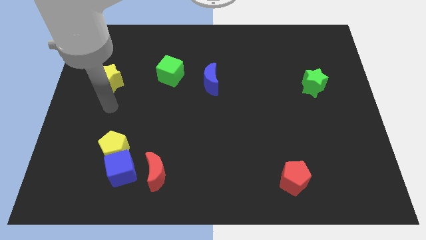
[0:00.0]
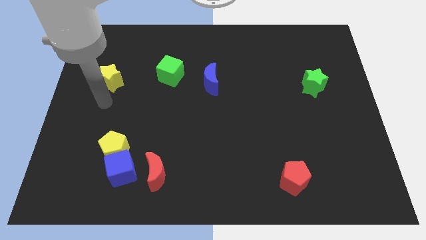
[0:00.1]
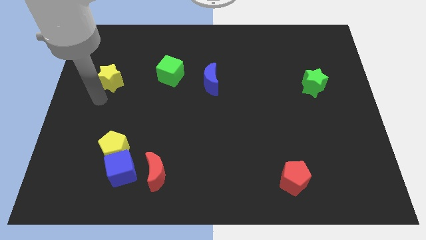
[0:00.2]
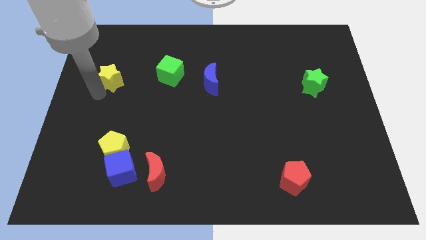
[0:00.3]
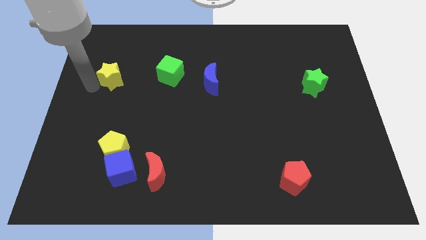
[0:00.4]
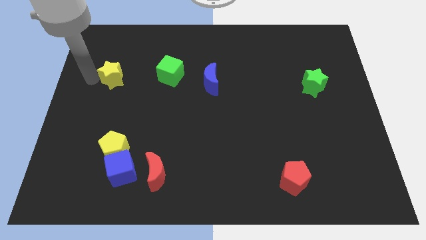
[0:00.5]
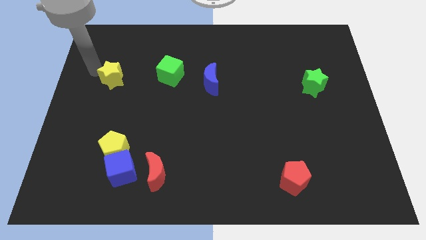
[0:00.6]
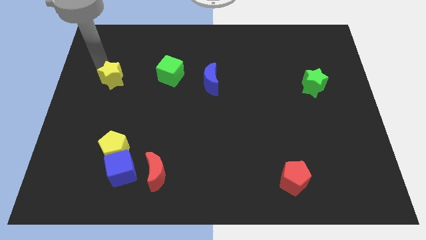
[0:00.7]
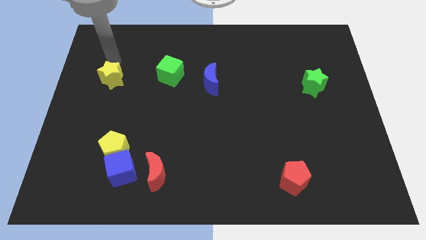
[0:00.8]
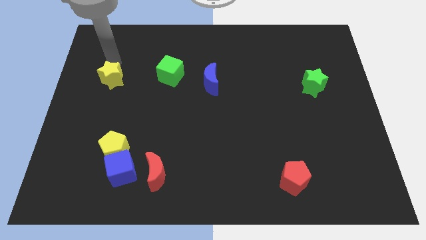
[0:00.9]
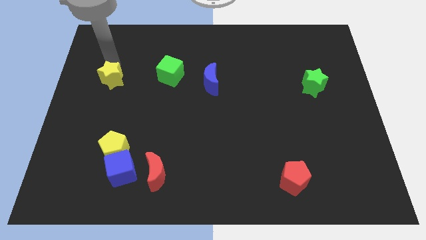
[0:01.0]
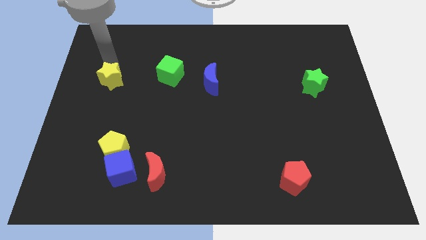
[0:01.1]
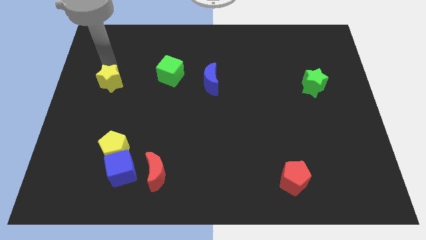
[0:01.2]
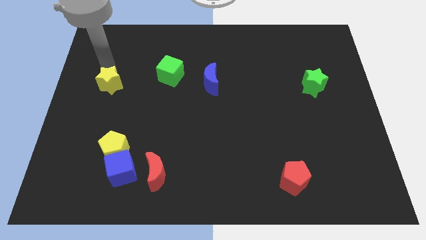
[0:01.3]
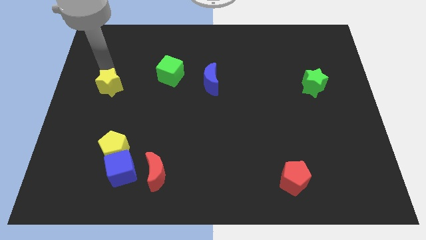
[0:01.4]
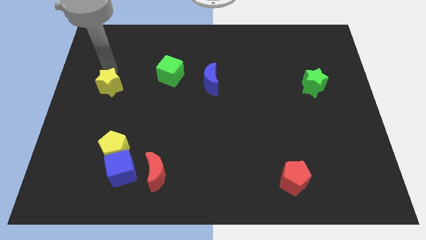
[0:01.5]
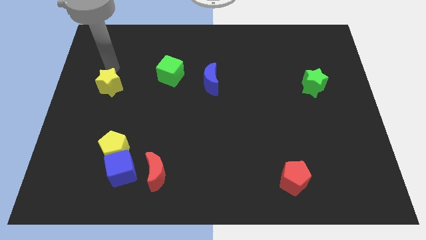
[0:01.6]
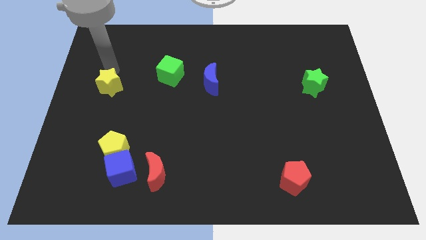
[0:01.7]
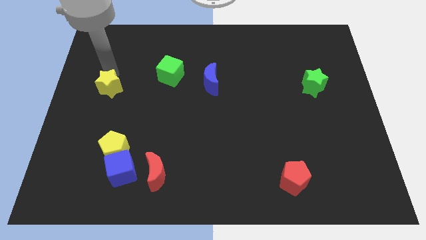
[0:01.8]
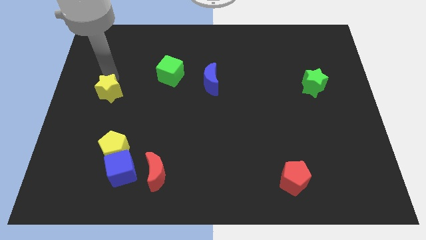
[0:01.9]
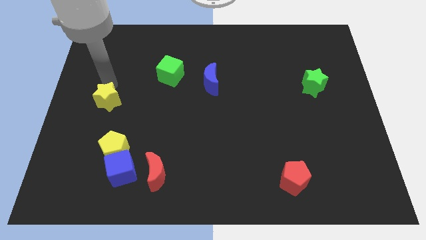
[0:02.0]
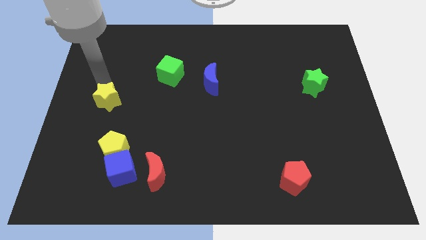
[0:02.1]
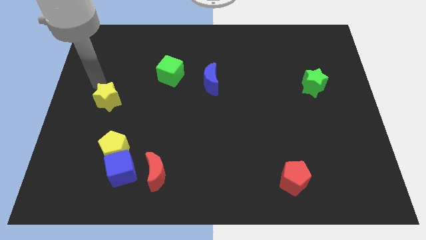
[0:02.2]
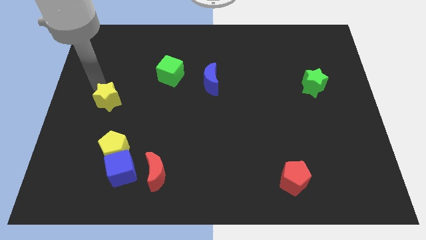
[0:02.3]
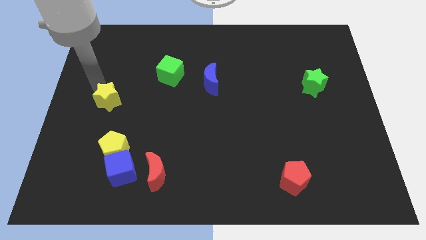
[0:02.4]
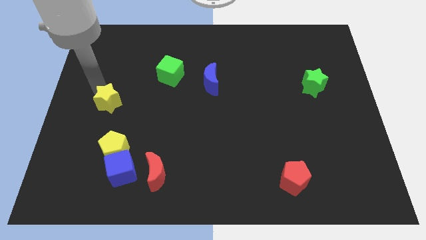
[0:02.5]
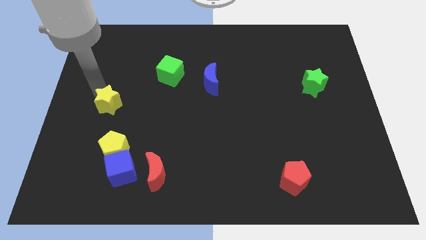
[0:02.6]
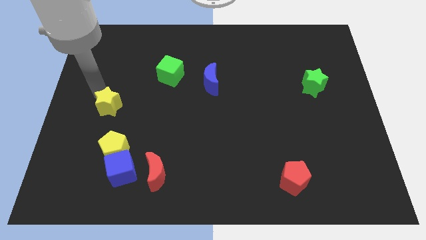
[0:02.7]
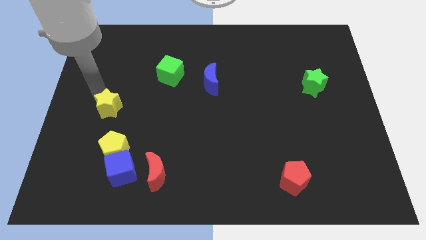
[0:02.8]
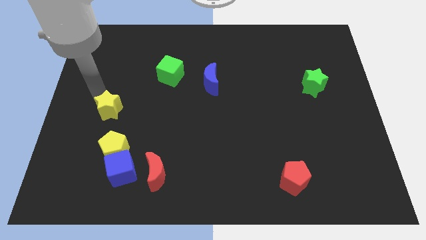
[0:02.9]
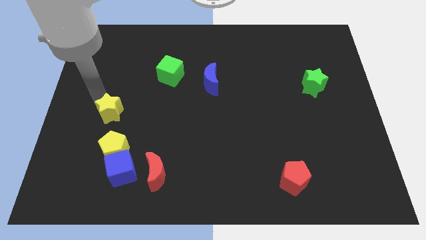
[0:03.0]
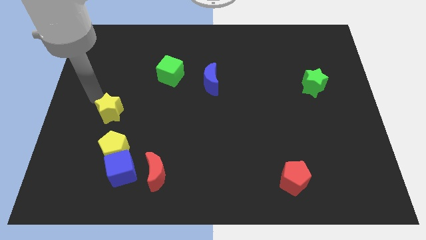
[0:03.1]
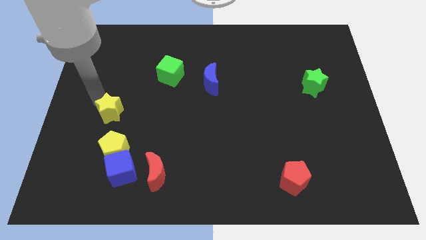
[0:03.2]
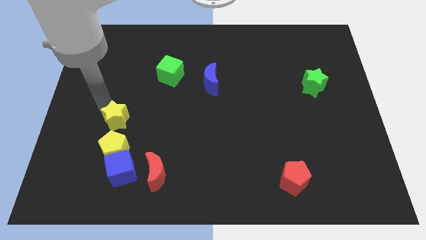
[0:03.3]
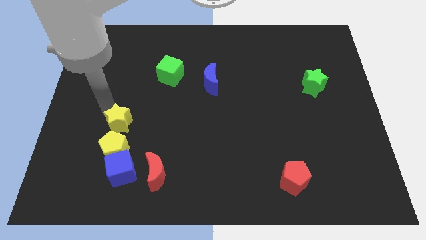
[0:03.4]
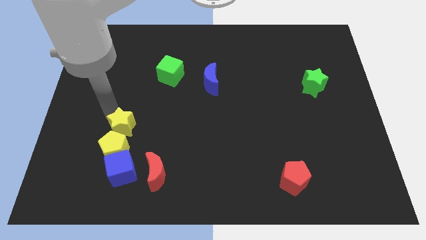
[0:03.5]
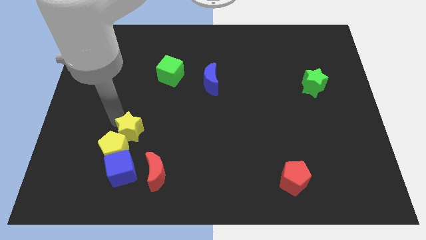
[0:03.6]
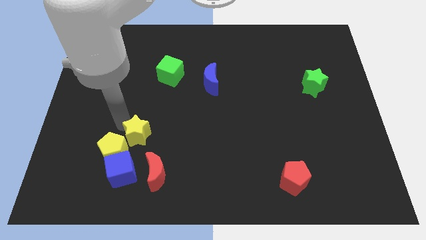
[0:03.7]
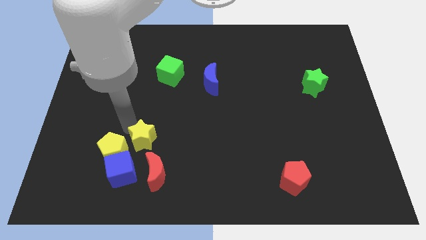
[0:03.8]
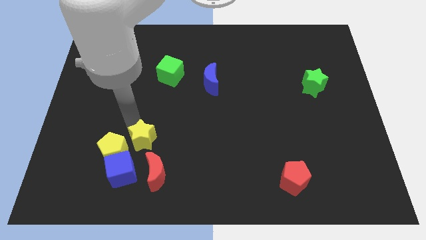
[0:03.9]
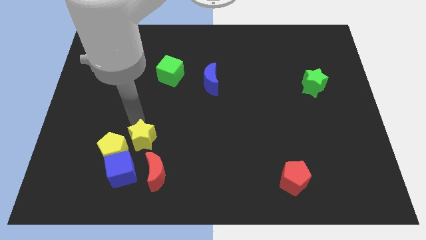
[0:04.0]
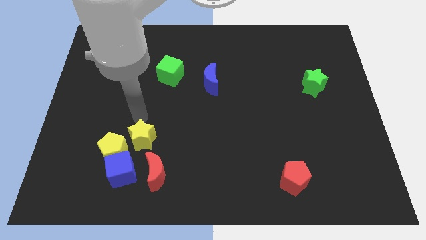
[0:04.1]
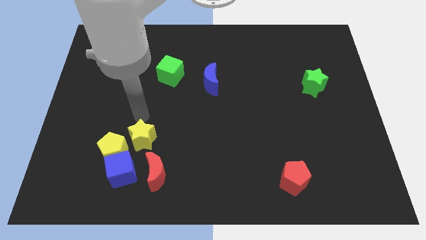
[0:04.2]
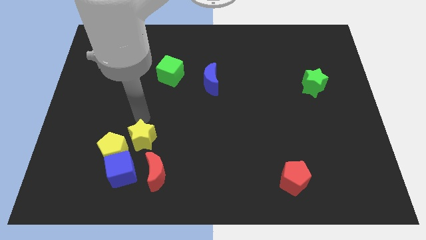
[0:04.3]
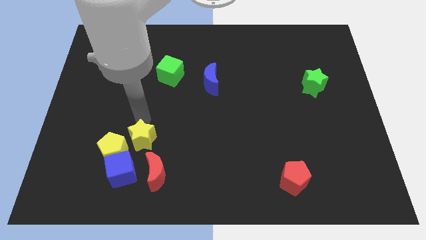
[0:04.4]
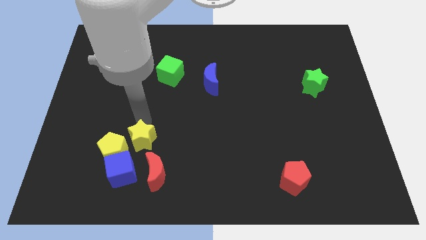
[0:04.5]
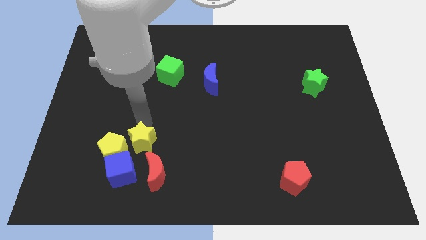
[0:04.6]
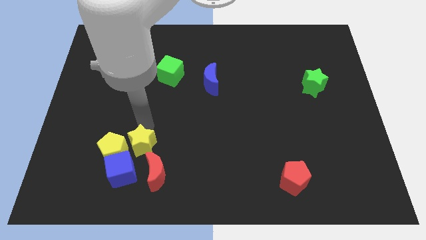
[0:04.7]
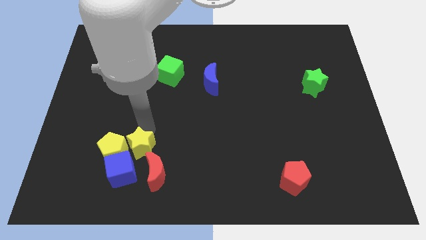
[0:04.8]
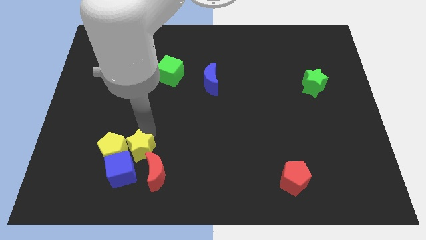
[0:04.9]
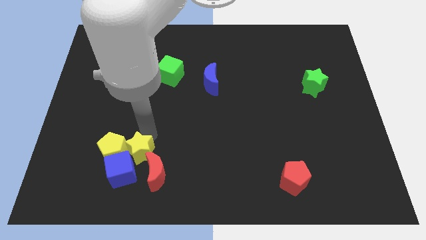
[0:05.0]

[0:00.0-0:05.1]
slide the yellow star towards the red moon
